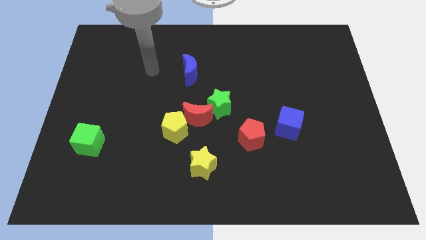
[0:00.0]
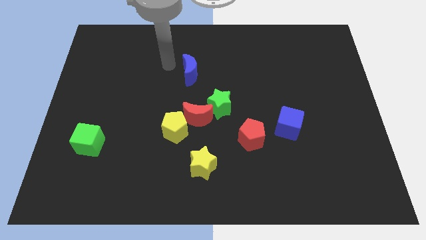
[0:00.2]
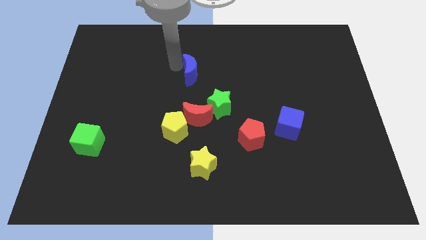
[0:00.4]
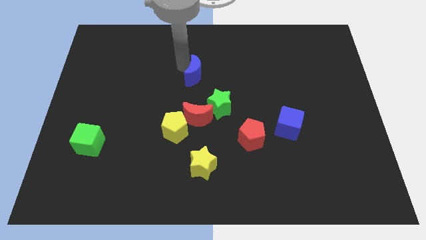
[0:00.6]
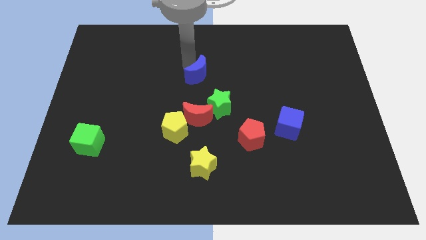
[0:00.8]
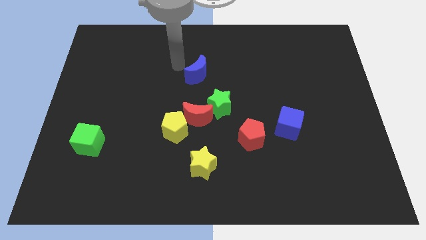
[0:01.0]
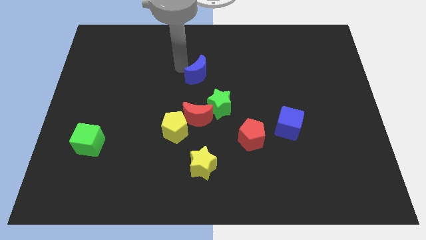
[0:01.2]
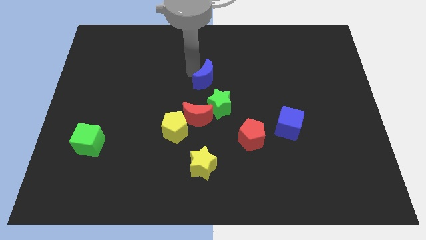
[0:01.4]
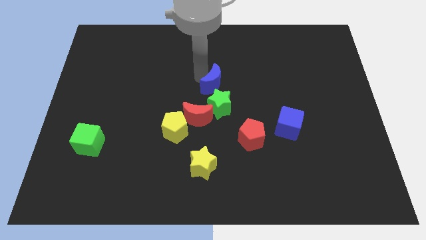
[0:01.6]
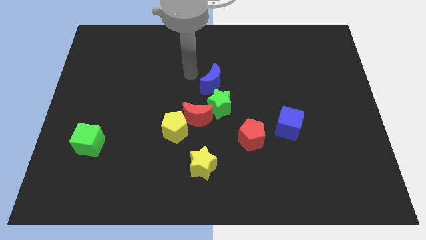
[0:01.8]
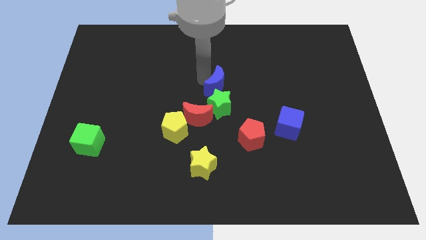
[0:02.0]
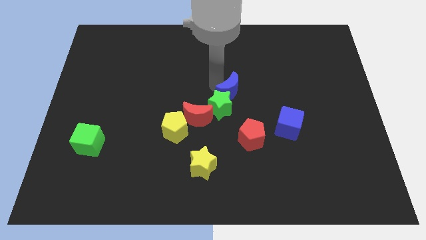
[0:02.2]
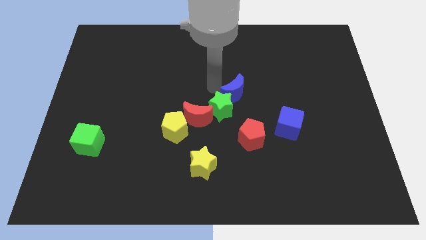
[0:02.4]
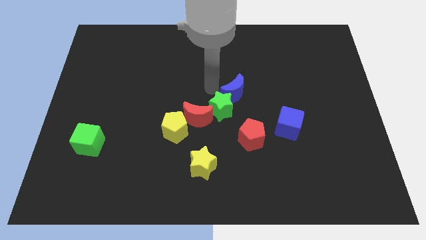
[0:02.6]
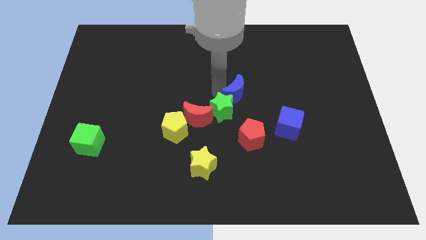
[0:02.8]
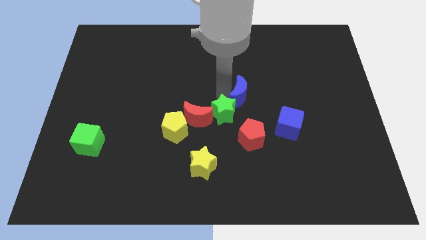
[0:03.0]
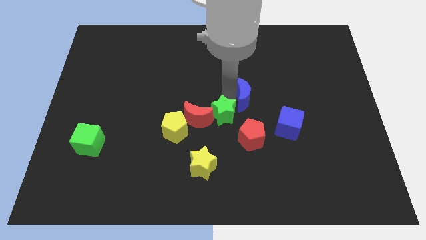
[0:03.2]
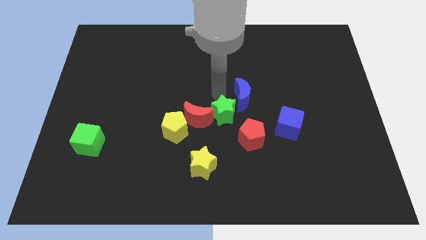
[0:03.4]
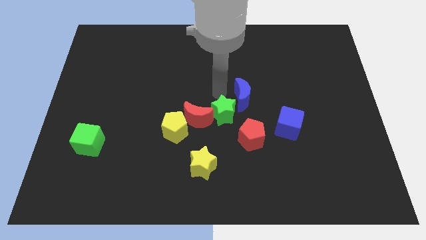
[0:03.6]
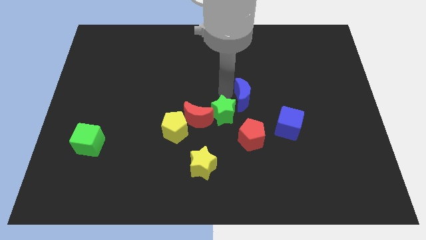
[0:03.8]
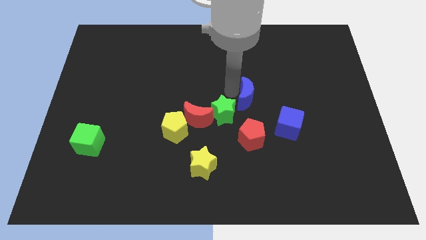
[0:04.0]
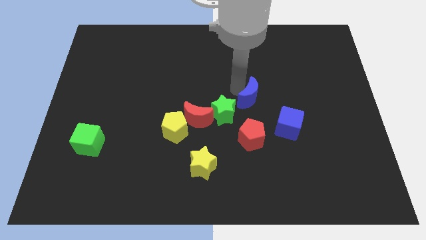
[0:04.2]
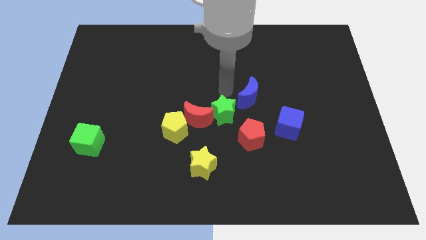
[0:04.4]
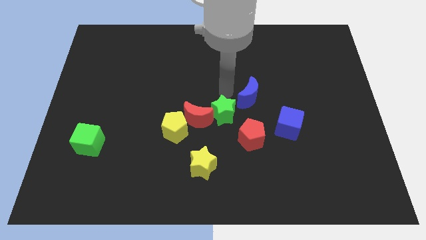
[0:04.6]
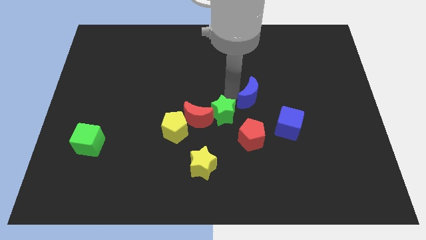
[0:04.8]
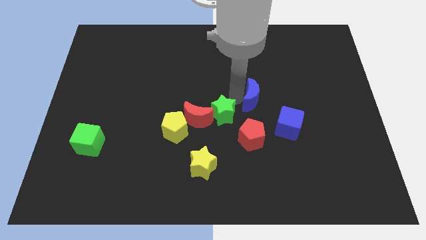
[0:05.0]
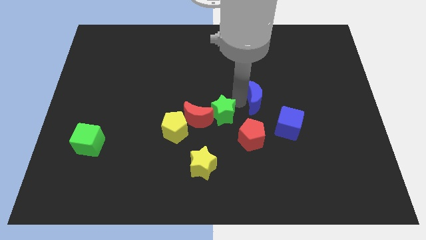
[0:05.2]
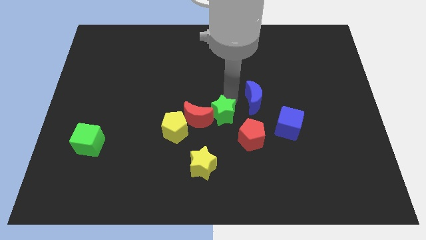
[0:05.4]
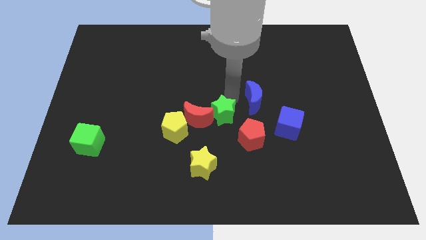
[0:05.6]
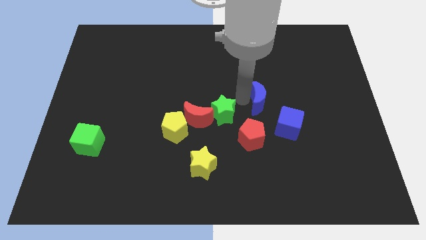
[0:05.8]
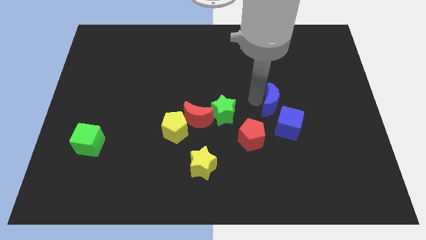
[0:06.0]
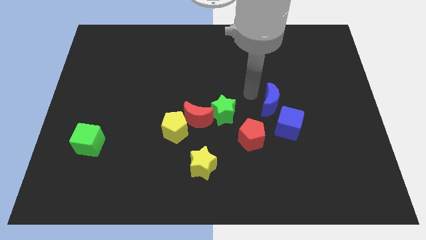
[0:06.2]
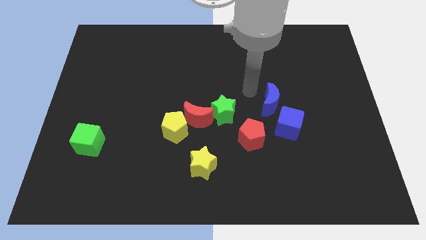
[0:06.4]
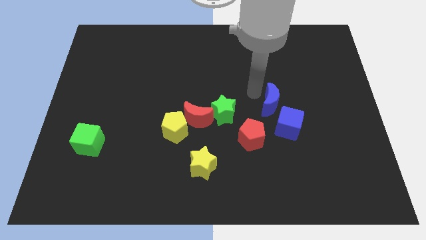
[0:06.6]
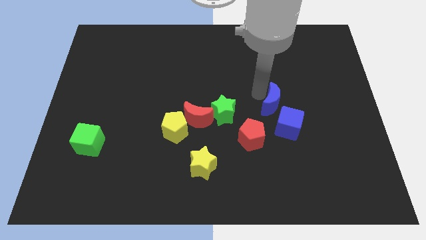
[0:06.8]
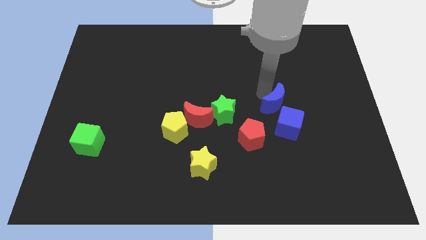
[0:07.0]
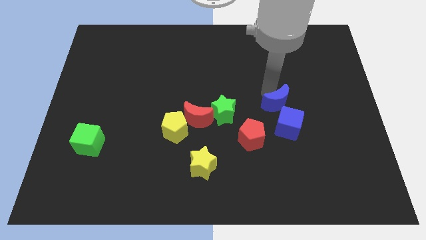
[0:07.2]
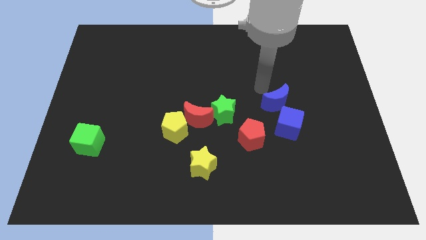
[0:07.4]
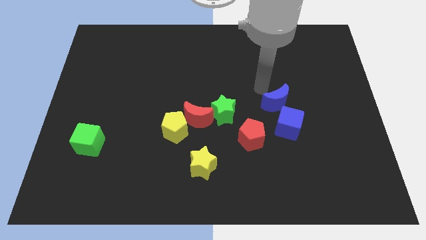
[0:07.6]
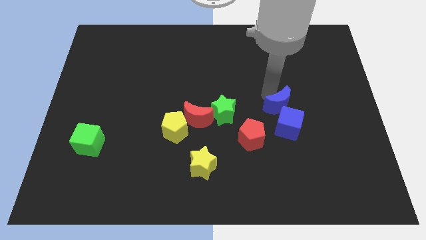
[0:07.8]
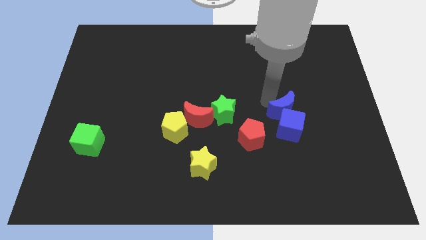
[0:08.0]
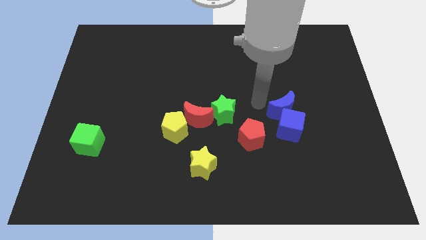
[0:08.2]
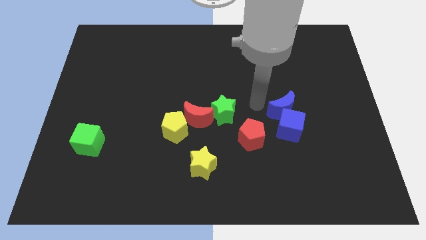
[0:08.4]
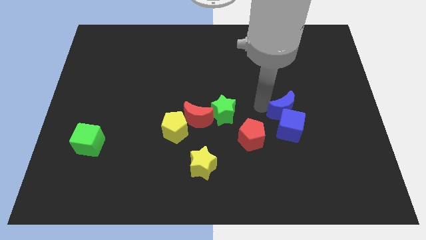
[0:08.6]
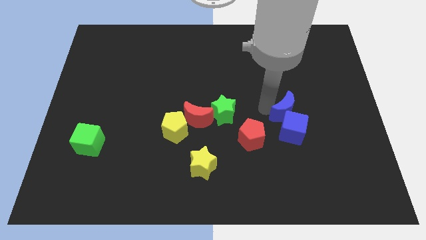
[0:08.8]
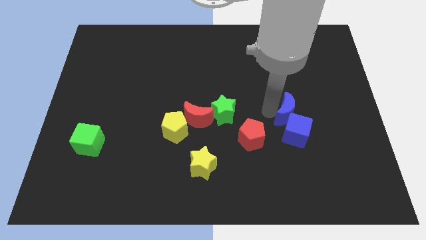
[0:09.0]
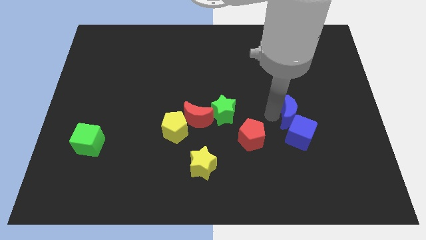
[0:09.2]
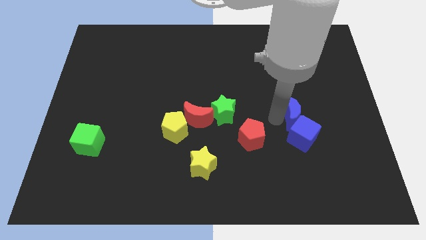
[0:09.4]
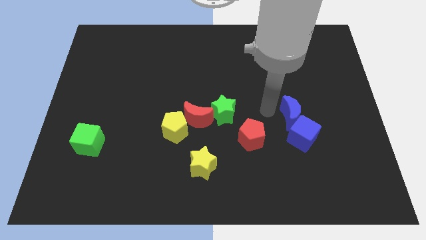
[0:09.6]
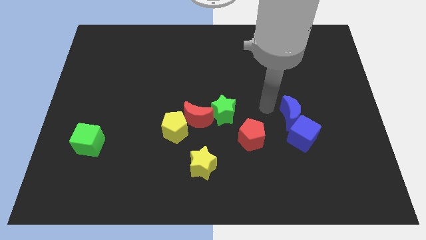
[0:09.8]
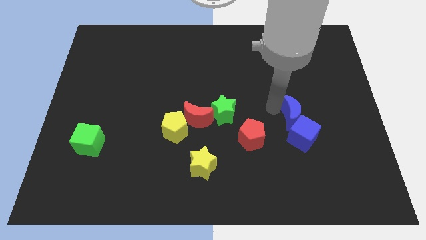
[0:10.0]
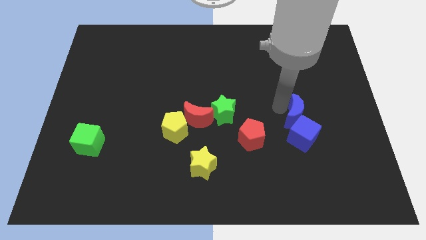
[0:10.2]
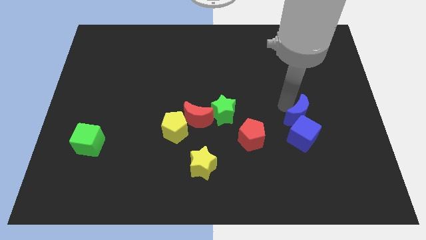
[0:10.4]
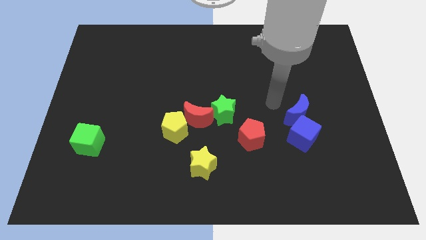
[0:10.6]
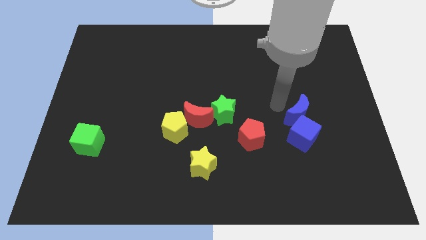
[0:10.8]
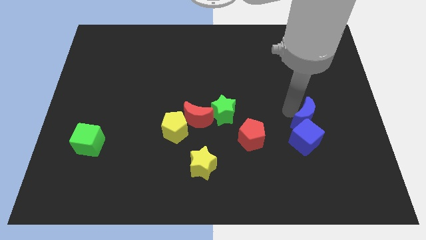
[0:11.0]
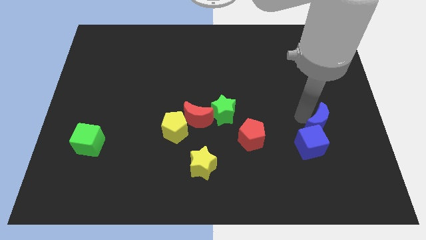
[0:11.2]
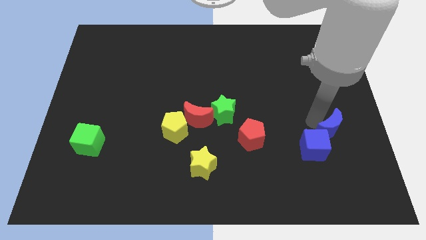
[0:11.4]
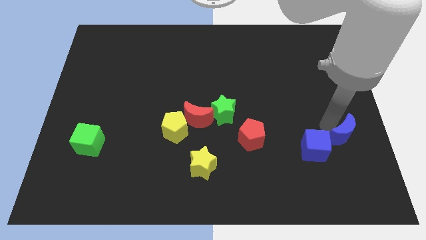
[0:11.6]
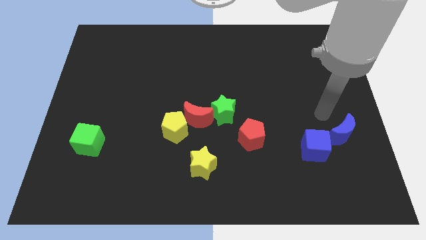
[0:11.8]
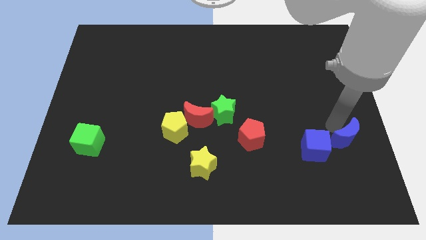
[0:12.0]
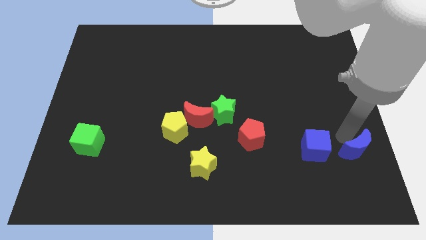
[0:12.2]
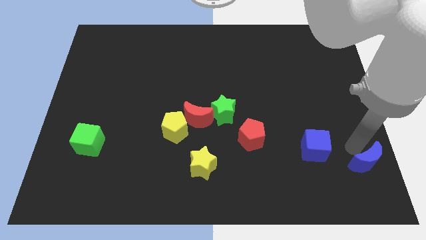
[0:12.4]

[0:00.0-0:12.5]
put the blue moon to the bottom right corner
